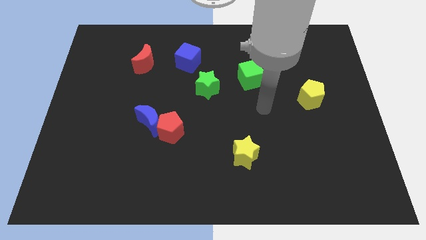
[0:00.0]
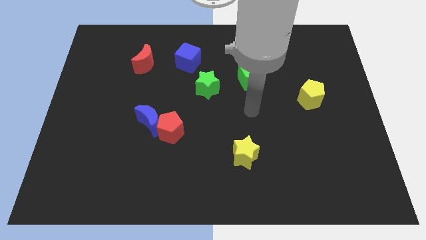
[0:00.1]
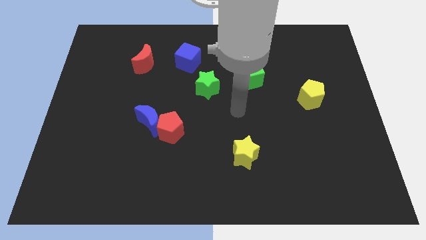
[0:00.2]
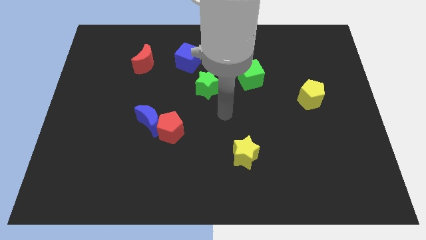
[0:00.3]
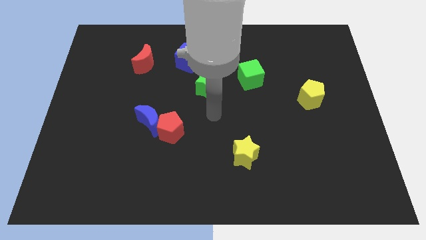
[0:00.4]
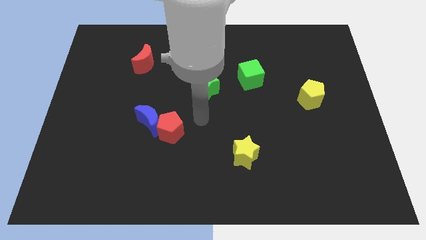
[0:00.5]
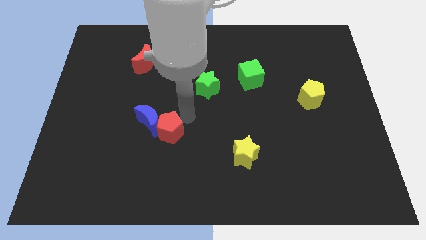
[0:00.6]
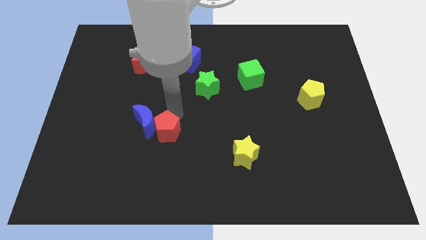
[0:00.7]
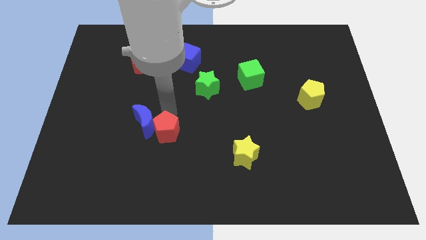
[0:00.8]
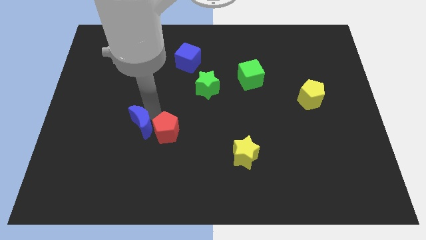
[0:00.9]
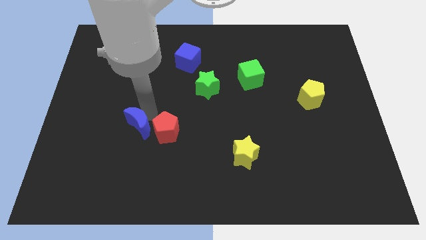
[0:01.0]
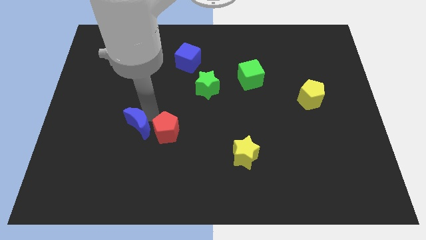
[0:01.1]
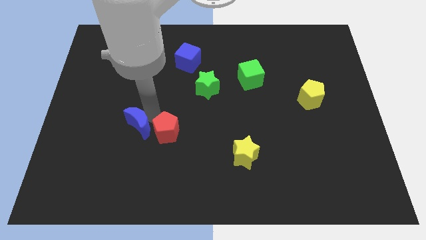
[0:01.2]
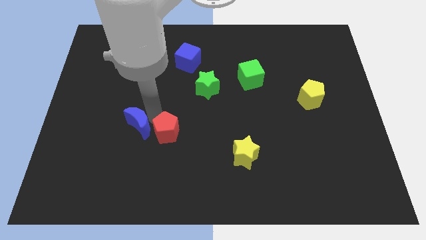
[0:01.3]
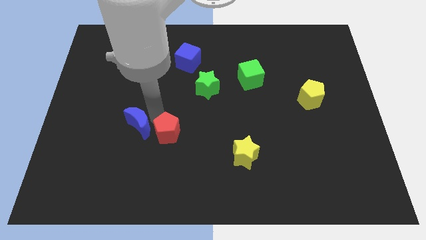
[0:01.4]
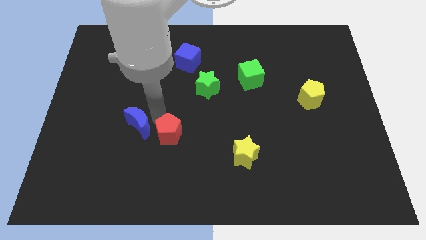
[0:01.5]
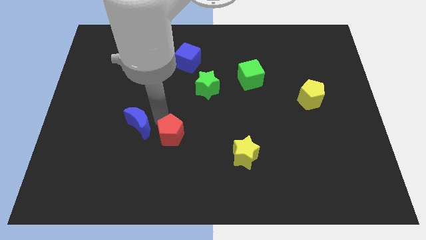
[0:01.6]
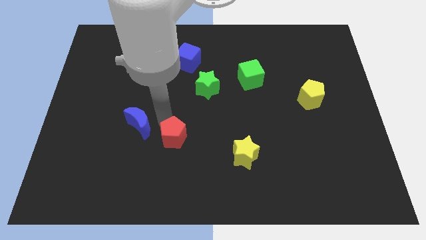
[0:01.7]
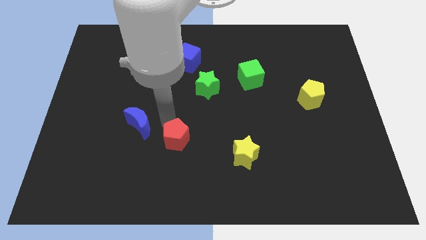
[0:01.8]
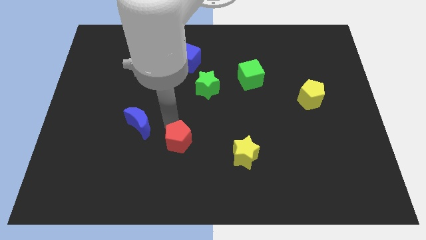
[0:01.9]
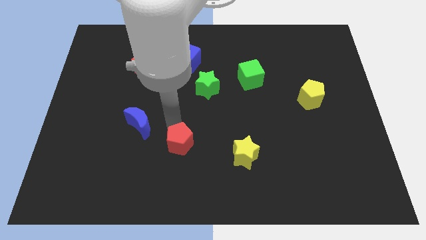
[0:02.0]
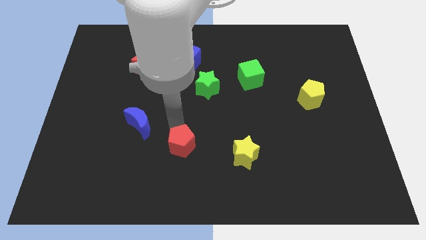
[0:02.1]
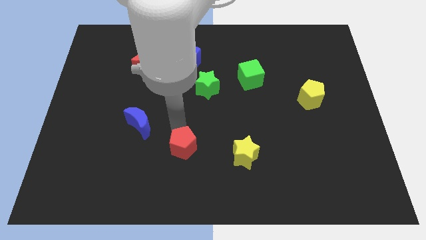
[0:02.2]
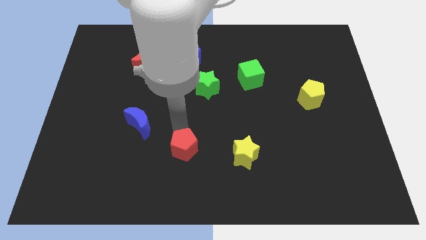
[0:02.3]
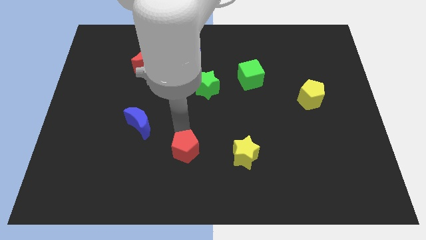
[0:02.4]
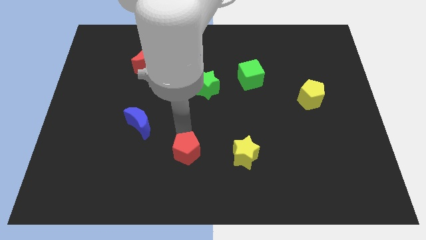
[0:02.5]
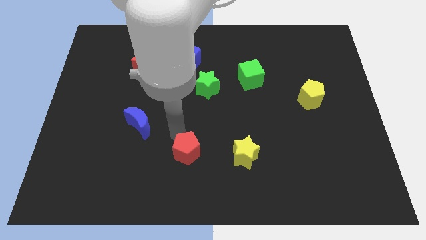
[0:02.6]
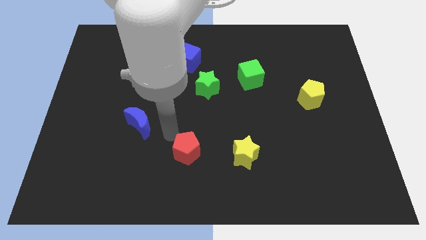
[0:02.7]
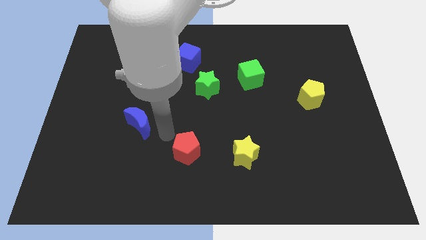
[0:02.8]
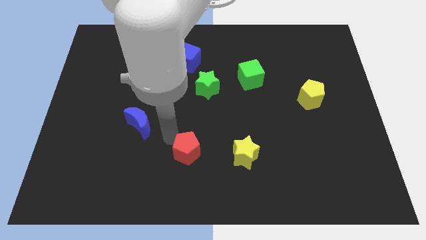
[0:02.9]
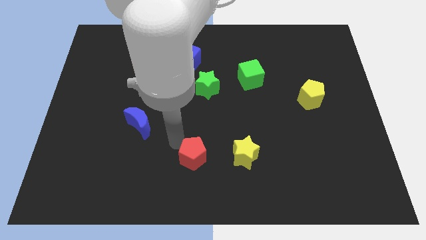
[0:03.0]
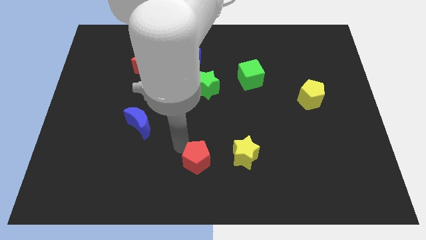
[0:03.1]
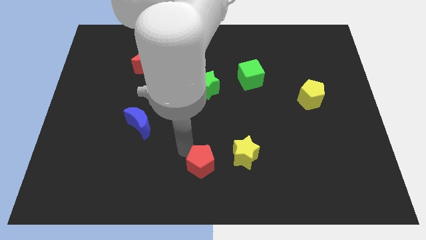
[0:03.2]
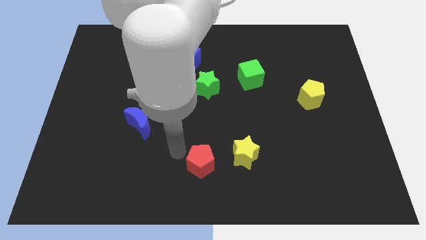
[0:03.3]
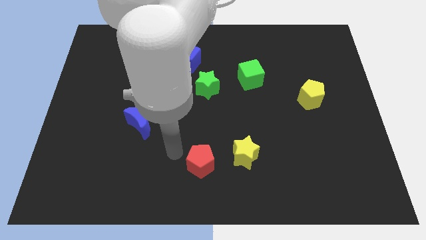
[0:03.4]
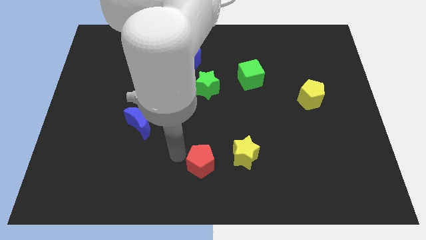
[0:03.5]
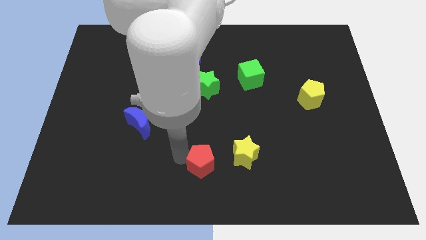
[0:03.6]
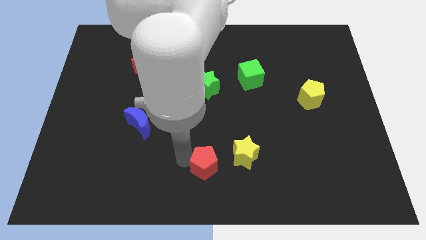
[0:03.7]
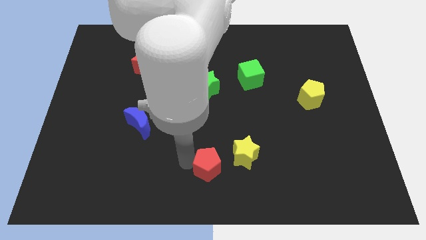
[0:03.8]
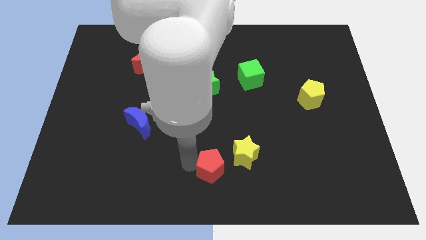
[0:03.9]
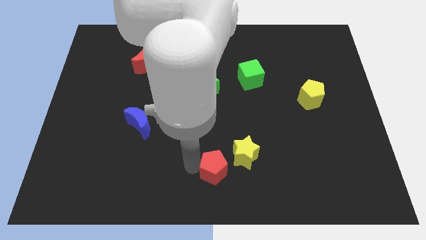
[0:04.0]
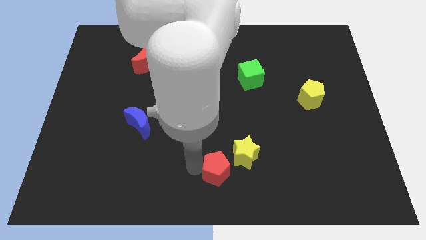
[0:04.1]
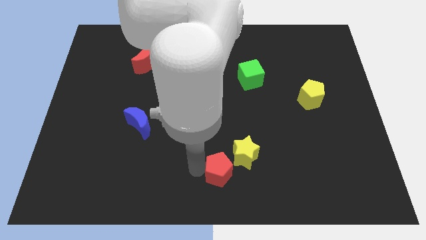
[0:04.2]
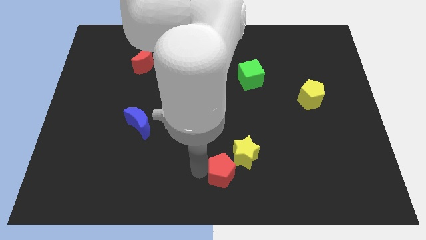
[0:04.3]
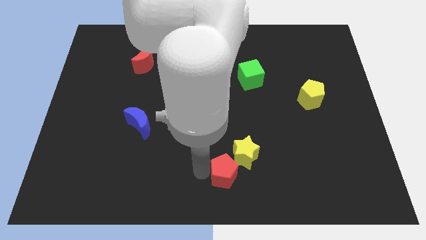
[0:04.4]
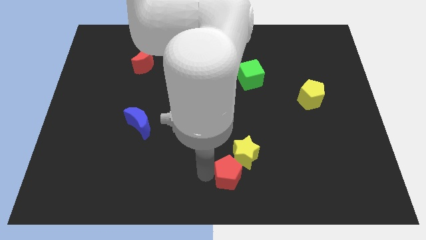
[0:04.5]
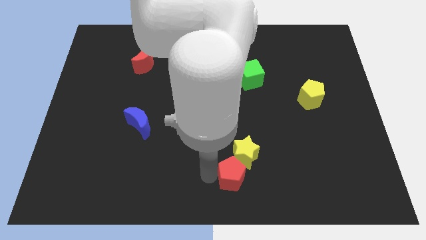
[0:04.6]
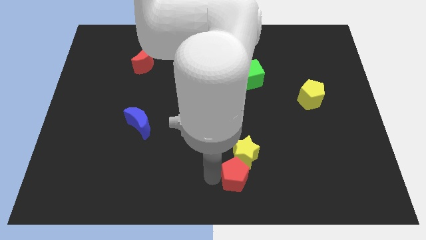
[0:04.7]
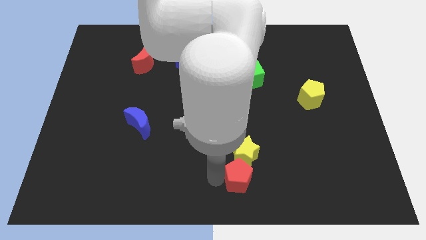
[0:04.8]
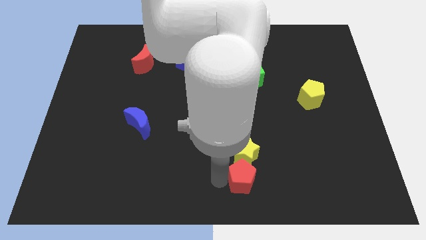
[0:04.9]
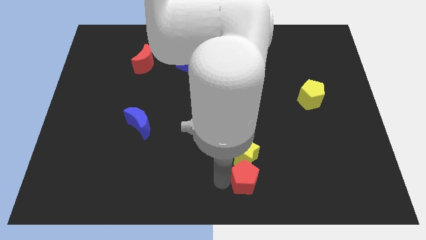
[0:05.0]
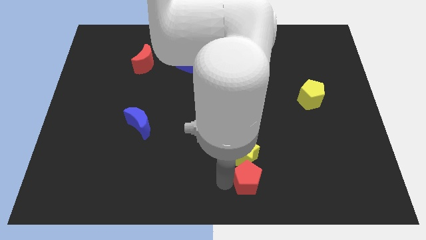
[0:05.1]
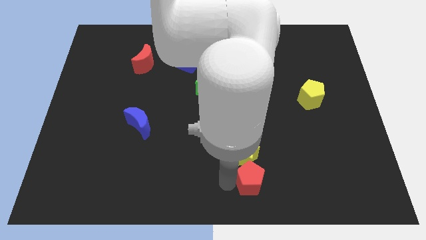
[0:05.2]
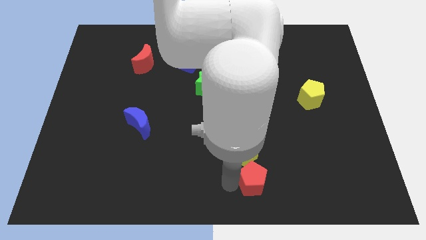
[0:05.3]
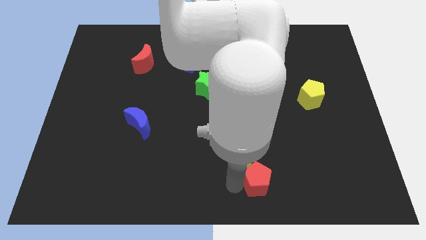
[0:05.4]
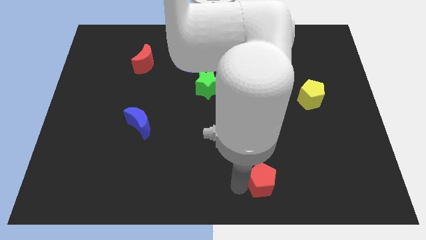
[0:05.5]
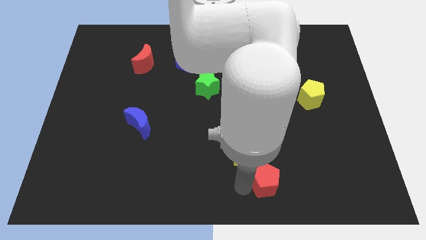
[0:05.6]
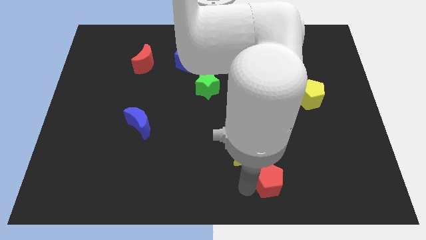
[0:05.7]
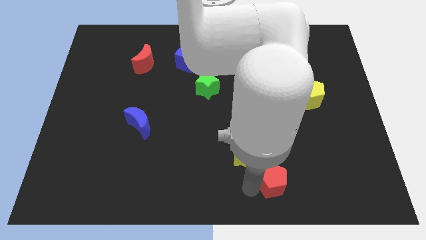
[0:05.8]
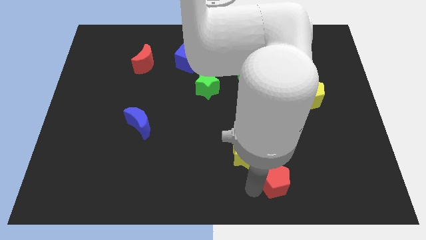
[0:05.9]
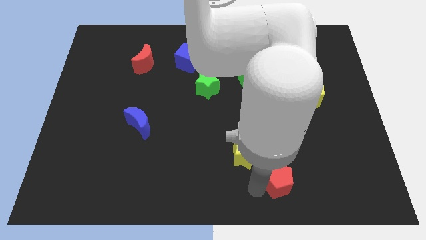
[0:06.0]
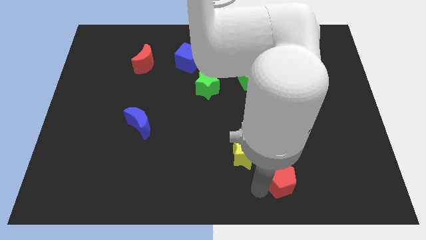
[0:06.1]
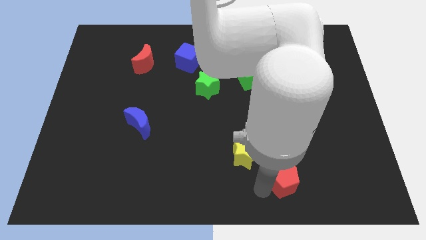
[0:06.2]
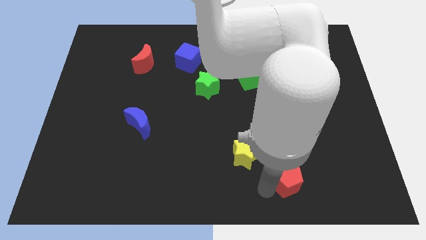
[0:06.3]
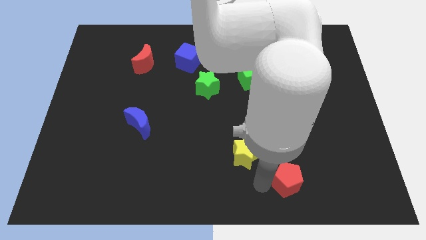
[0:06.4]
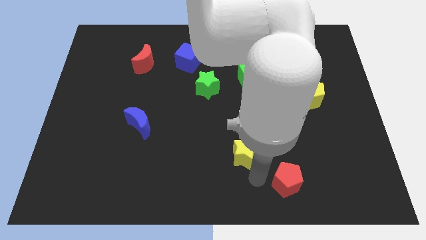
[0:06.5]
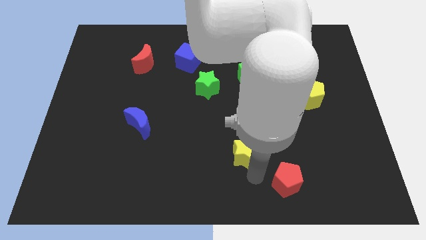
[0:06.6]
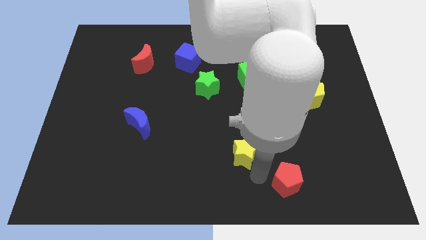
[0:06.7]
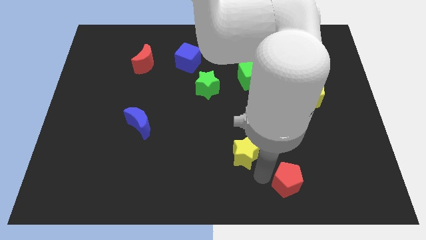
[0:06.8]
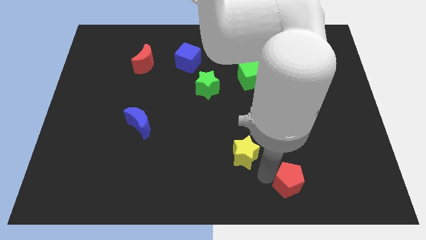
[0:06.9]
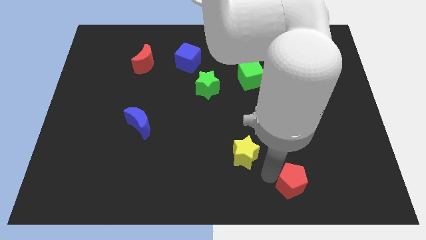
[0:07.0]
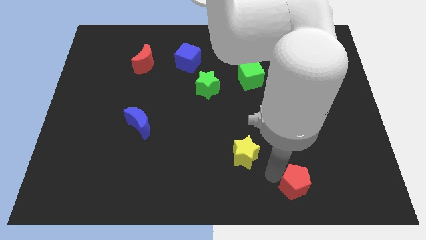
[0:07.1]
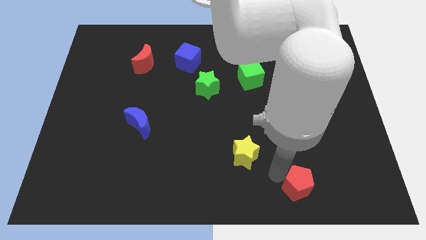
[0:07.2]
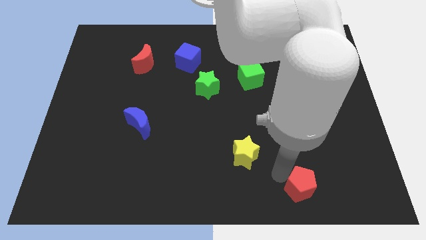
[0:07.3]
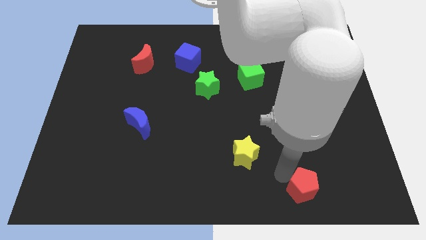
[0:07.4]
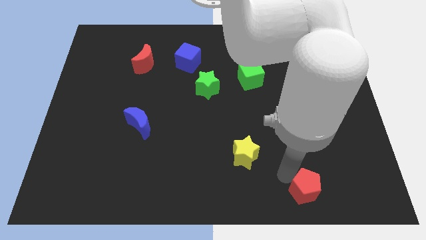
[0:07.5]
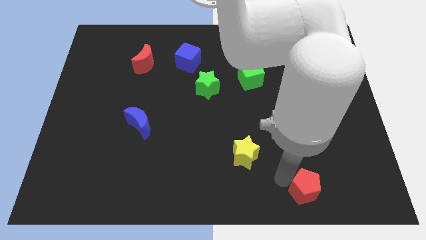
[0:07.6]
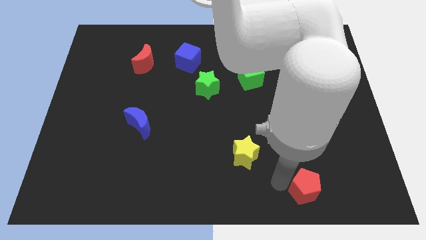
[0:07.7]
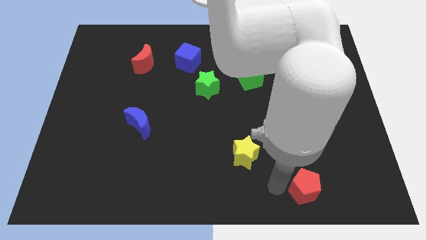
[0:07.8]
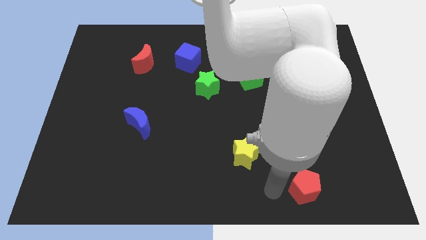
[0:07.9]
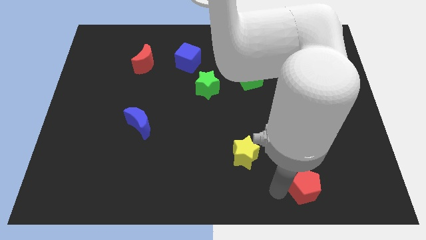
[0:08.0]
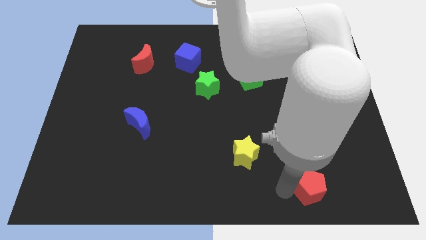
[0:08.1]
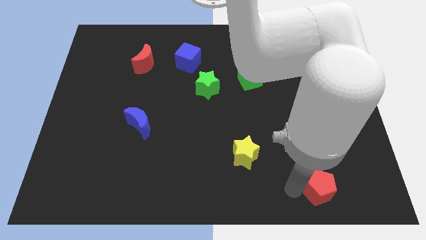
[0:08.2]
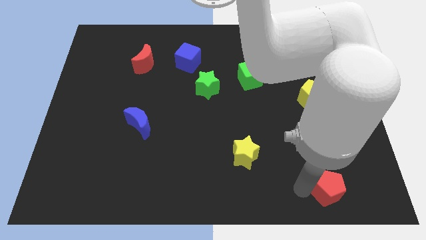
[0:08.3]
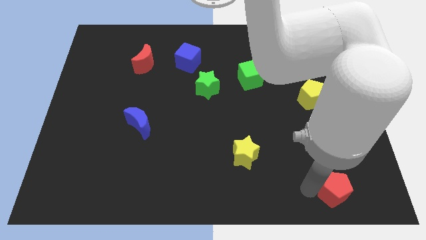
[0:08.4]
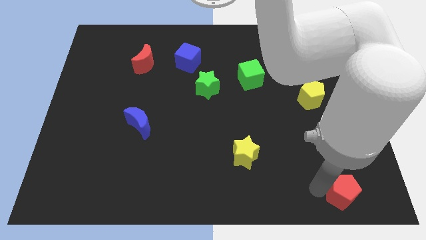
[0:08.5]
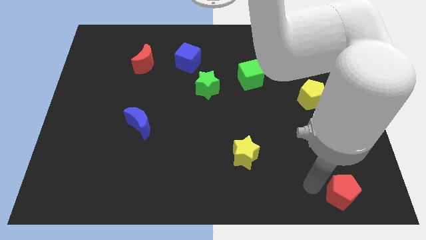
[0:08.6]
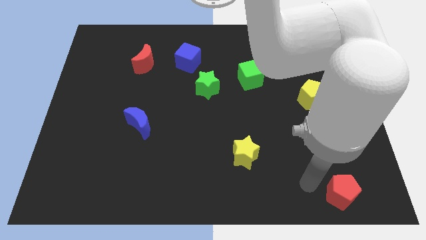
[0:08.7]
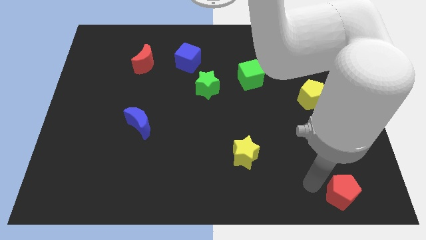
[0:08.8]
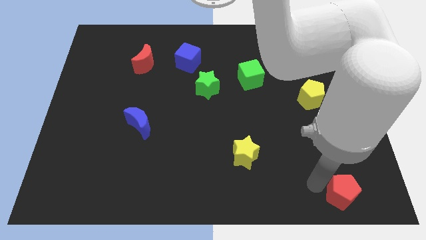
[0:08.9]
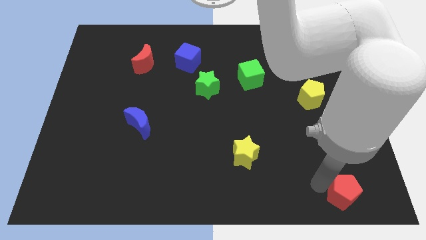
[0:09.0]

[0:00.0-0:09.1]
slide the red pentagon to the bottom right
